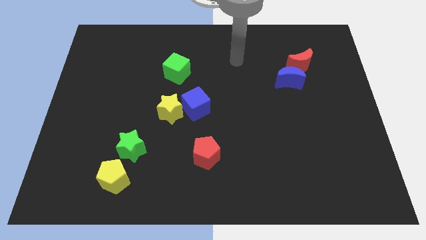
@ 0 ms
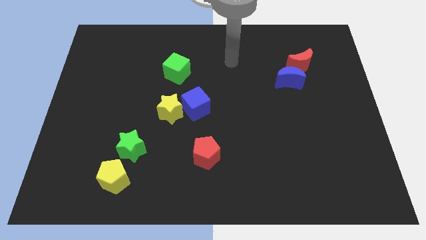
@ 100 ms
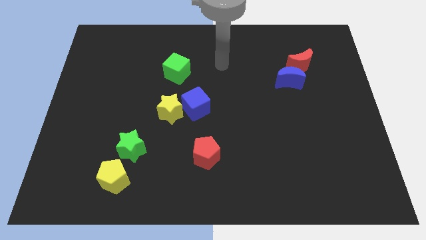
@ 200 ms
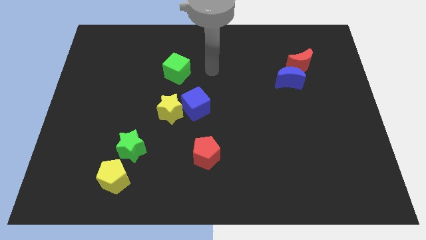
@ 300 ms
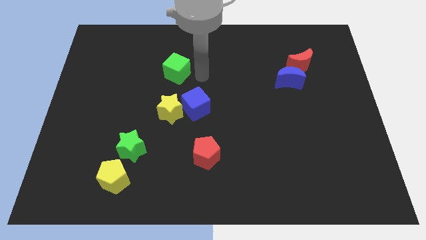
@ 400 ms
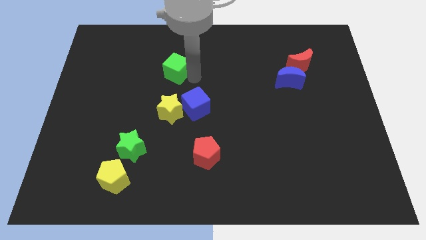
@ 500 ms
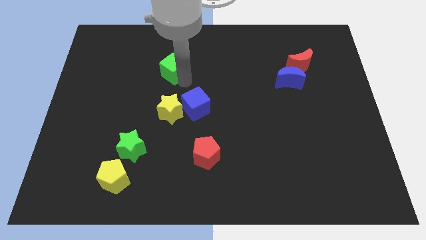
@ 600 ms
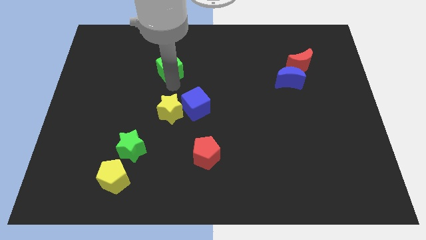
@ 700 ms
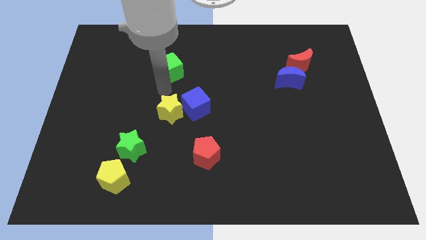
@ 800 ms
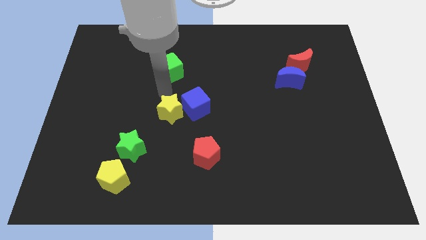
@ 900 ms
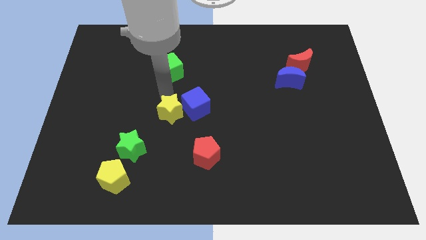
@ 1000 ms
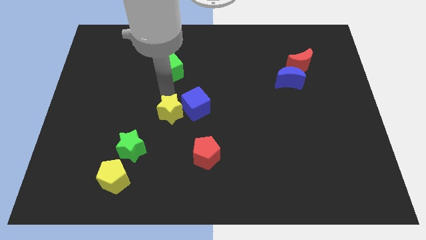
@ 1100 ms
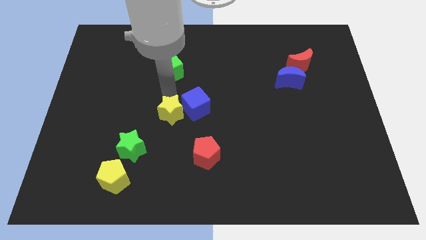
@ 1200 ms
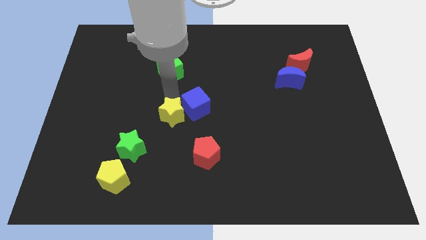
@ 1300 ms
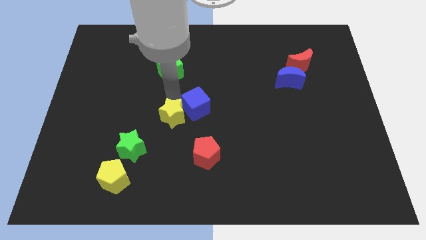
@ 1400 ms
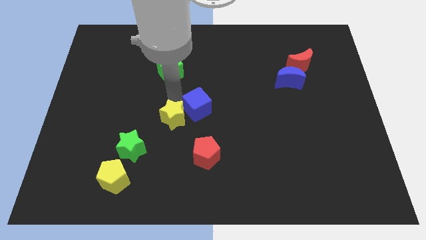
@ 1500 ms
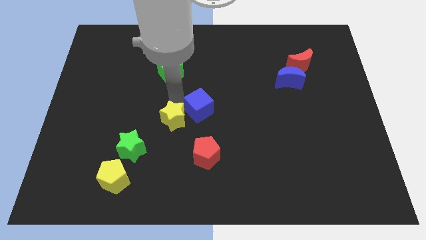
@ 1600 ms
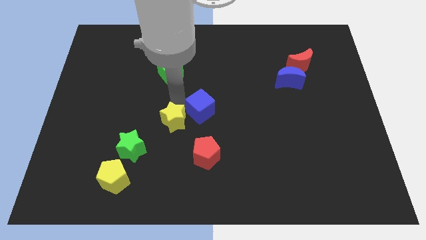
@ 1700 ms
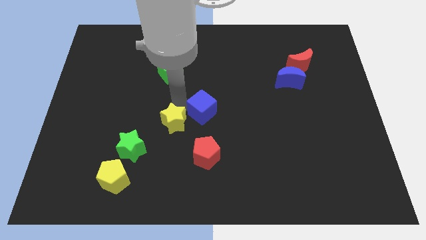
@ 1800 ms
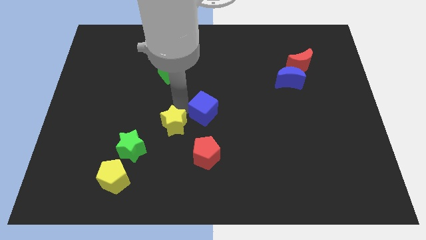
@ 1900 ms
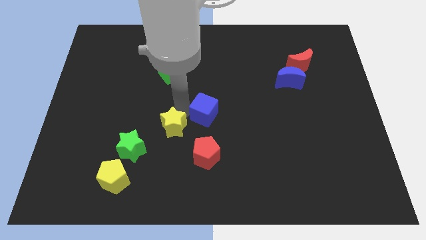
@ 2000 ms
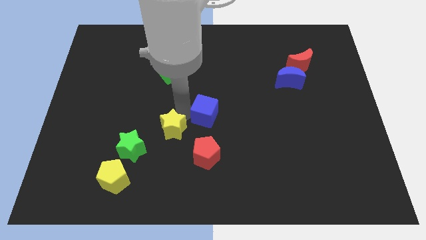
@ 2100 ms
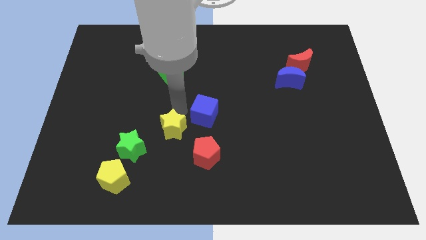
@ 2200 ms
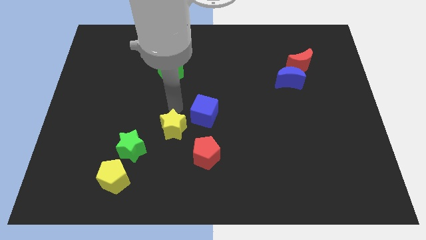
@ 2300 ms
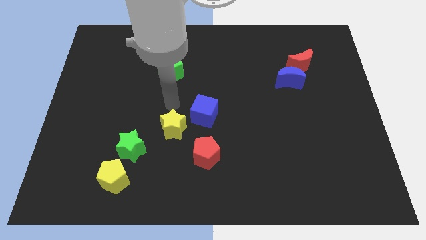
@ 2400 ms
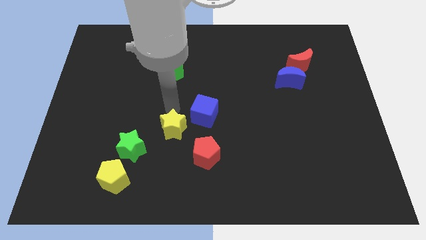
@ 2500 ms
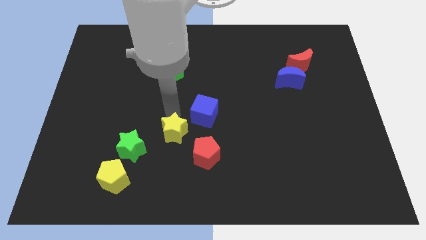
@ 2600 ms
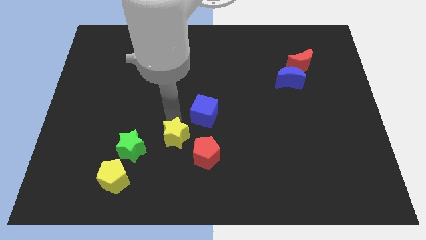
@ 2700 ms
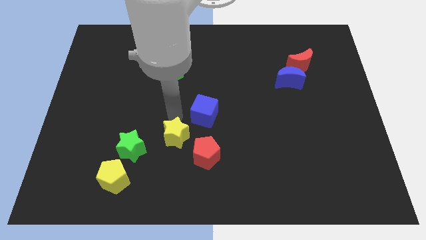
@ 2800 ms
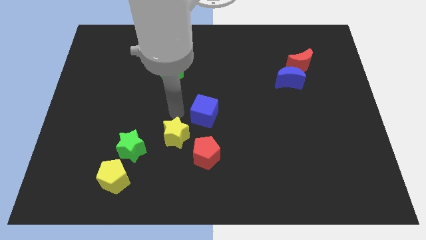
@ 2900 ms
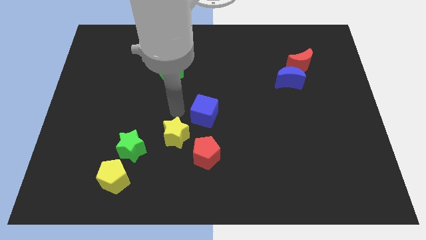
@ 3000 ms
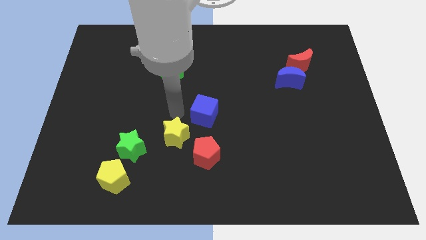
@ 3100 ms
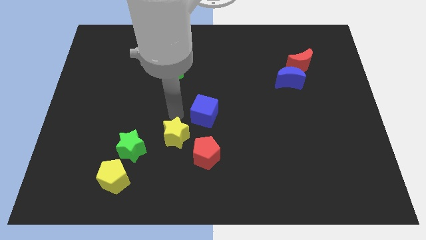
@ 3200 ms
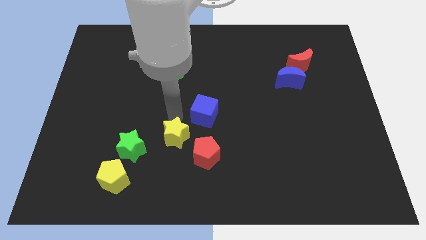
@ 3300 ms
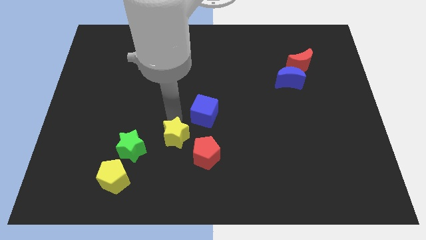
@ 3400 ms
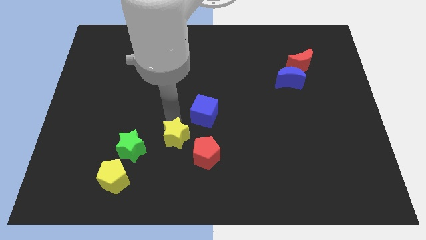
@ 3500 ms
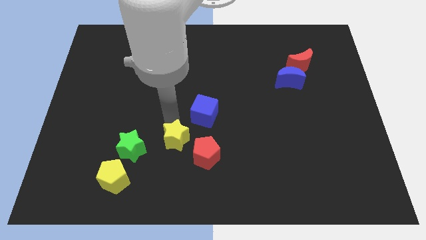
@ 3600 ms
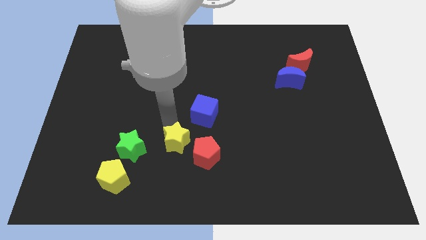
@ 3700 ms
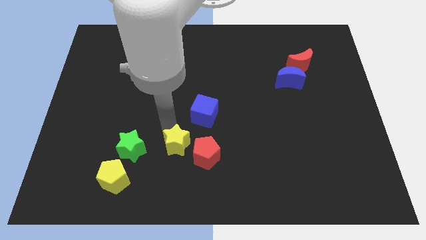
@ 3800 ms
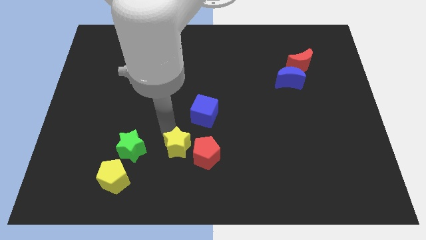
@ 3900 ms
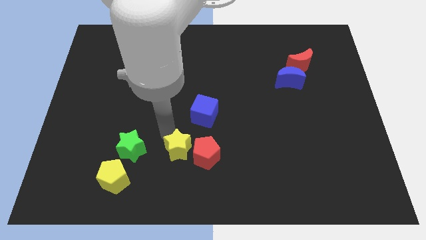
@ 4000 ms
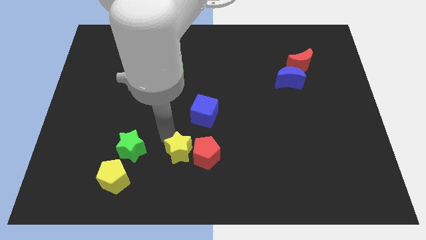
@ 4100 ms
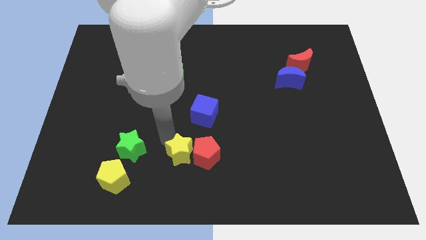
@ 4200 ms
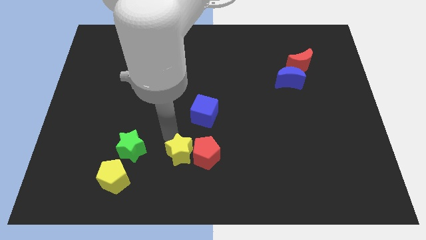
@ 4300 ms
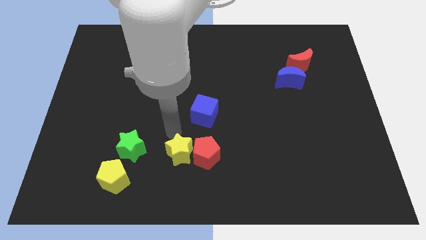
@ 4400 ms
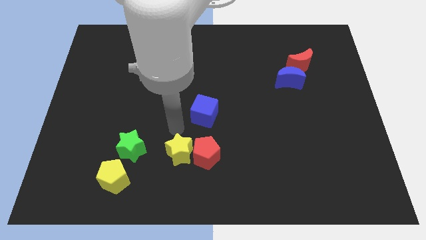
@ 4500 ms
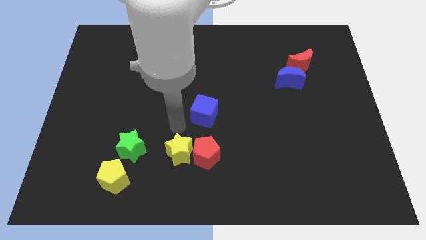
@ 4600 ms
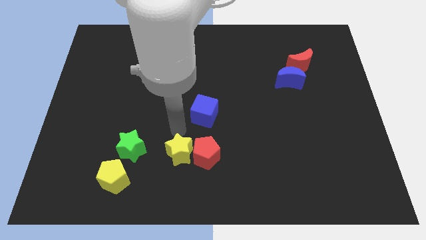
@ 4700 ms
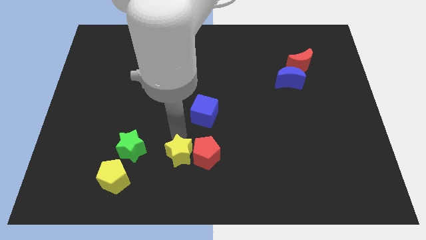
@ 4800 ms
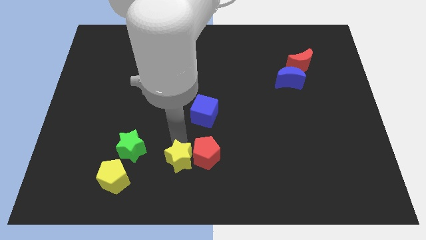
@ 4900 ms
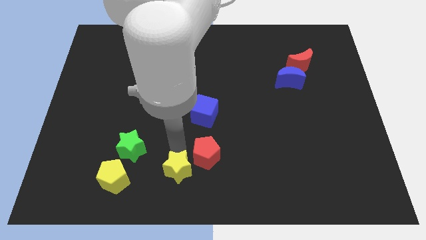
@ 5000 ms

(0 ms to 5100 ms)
put the yellow star to the bottom
